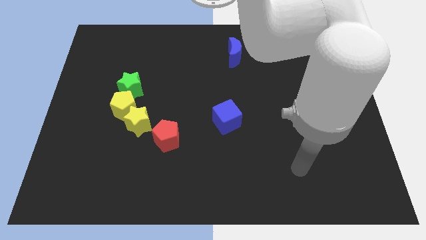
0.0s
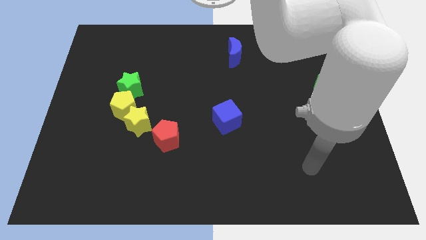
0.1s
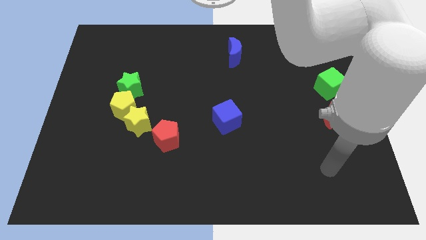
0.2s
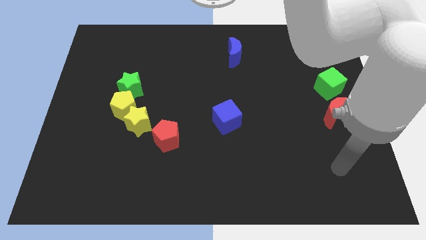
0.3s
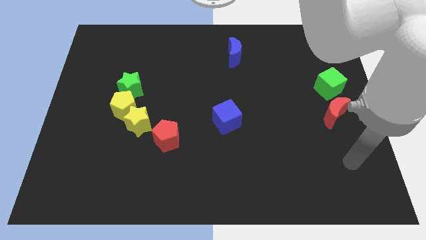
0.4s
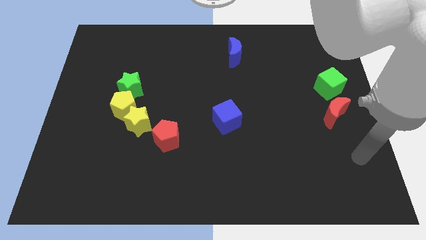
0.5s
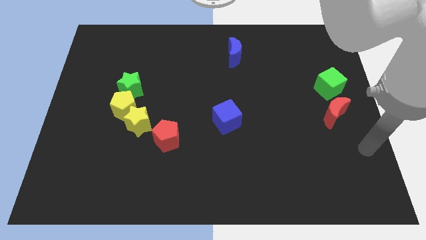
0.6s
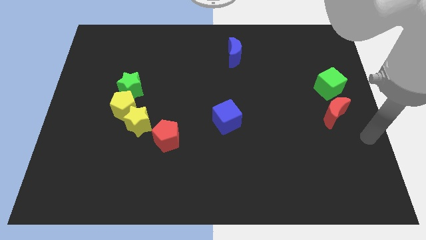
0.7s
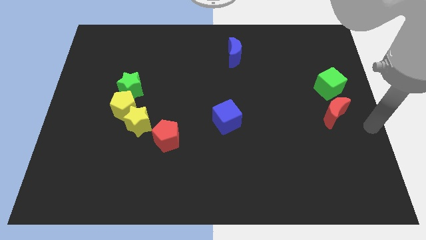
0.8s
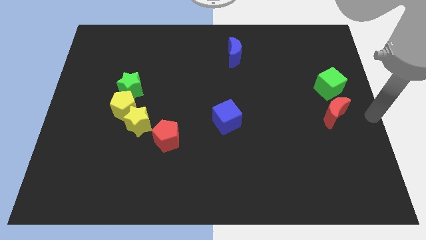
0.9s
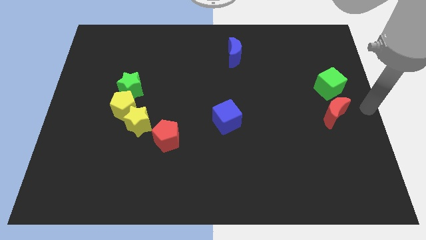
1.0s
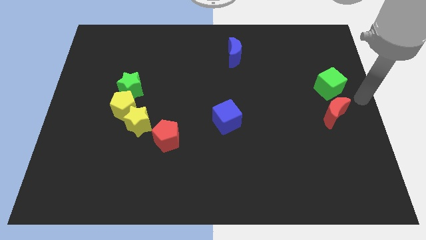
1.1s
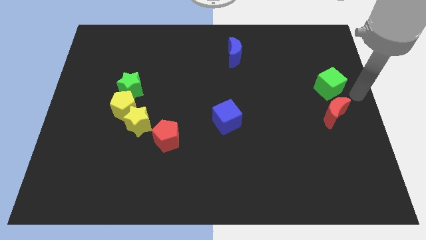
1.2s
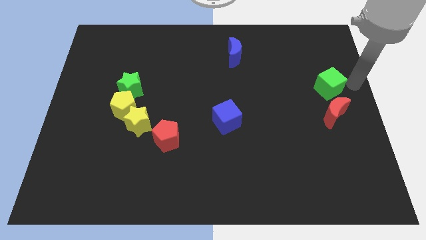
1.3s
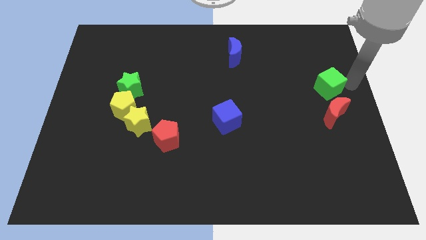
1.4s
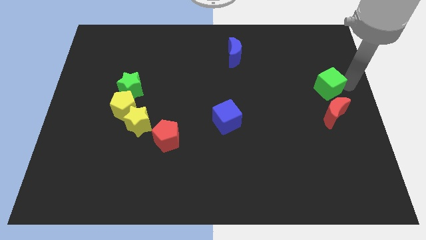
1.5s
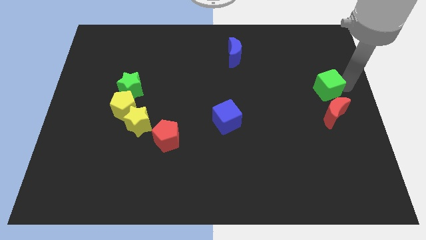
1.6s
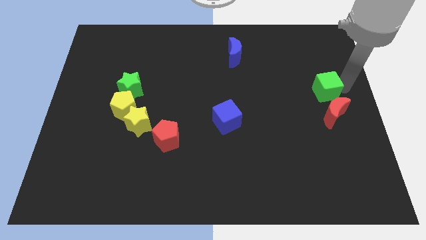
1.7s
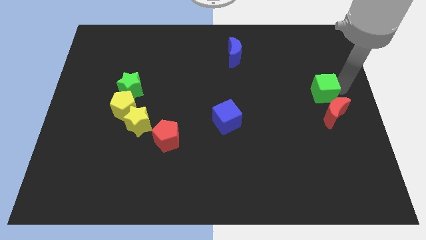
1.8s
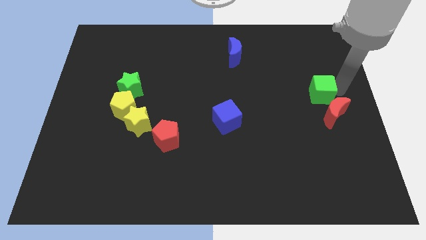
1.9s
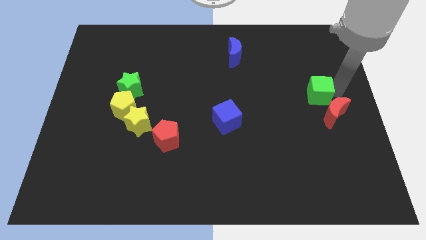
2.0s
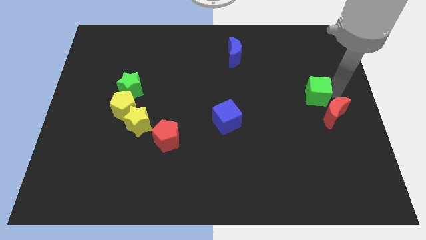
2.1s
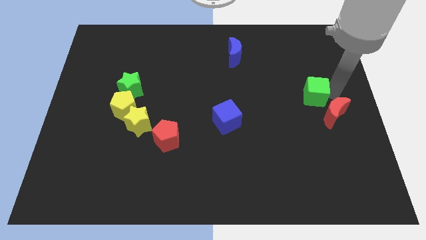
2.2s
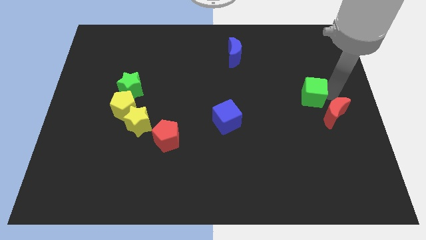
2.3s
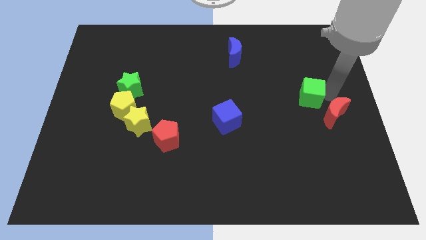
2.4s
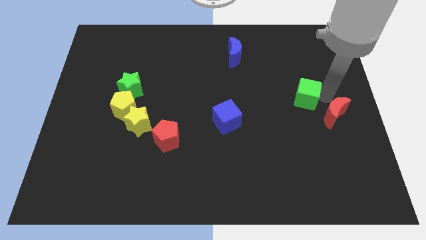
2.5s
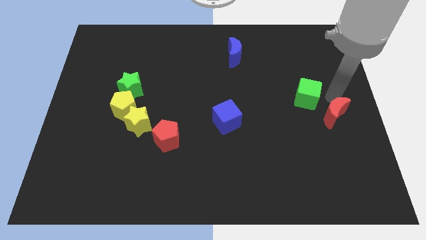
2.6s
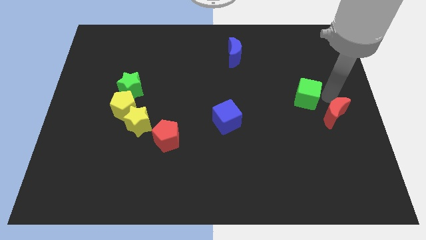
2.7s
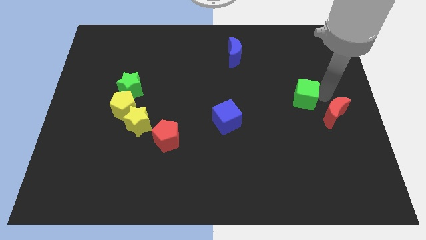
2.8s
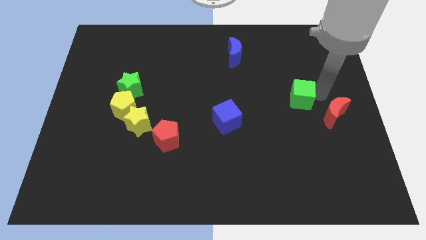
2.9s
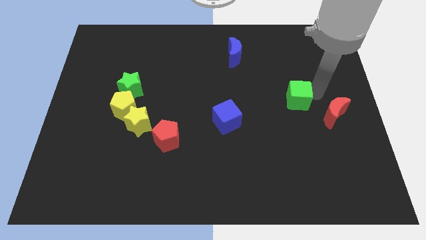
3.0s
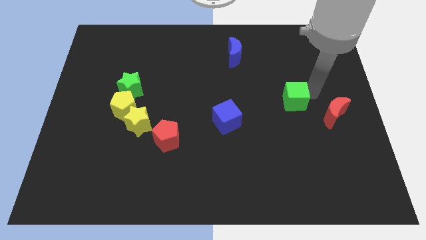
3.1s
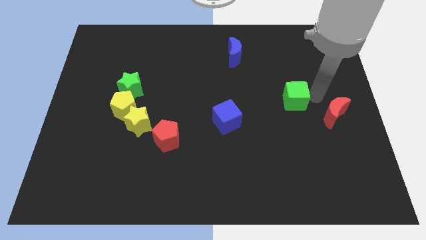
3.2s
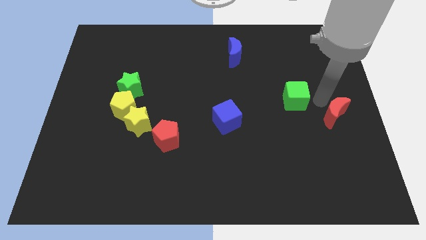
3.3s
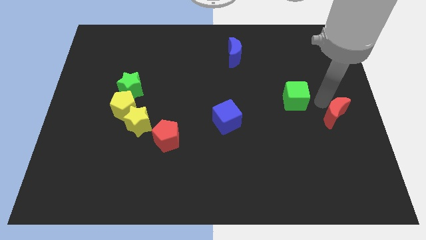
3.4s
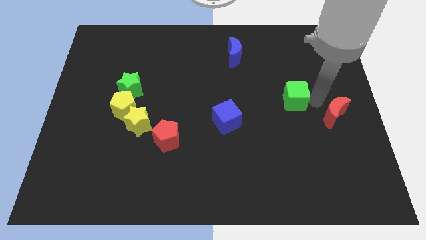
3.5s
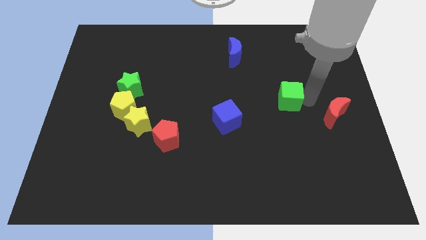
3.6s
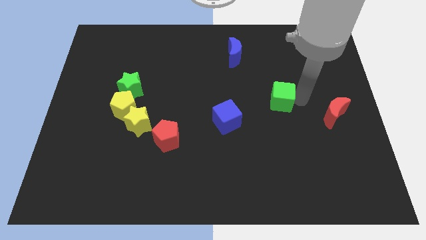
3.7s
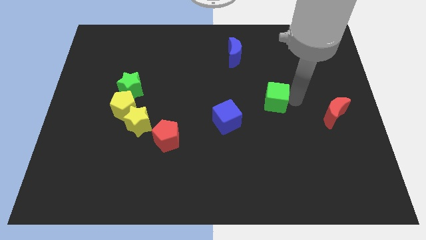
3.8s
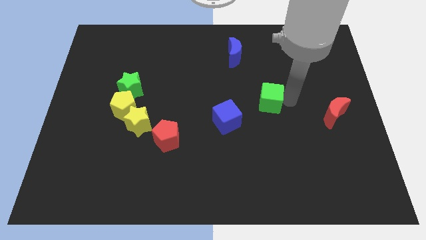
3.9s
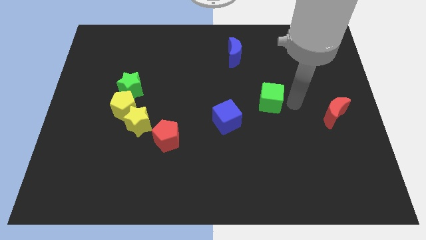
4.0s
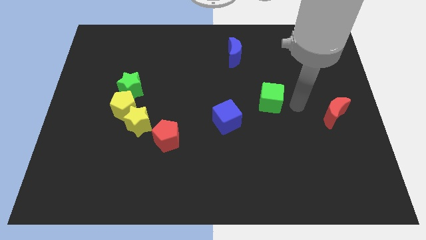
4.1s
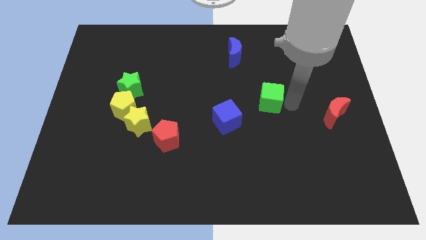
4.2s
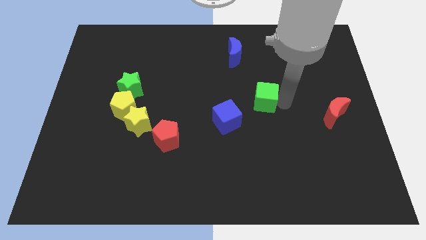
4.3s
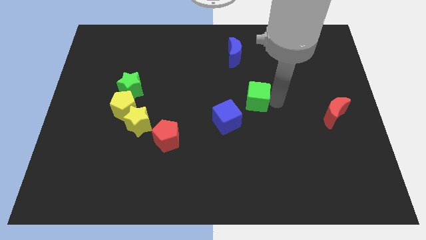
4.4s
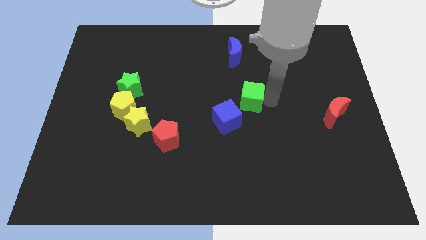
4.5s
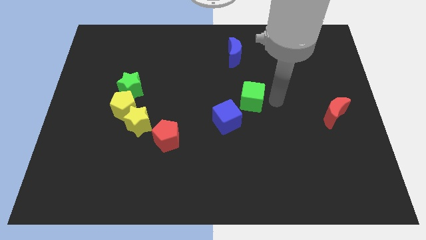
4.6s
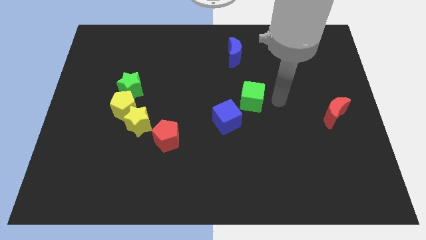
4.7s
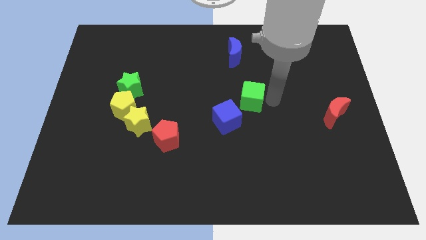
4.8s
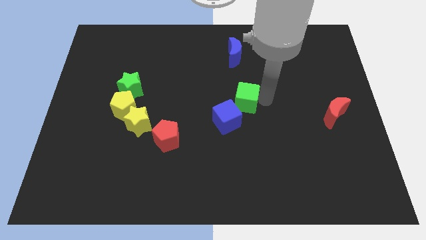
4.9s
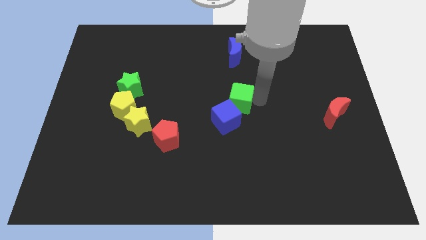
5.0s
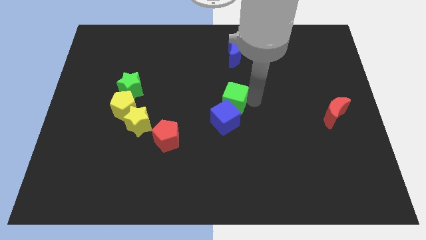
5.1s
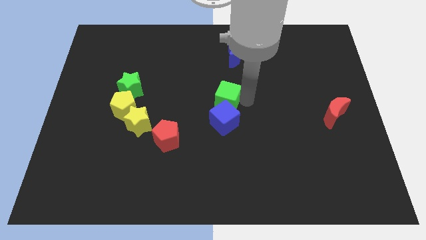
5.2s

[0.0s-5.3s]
move the green cube to the top left side of the blue cube

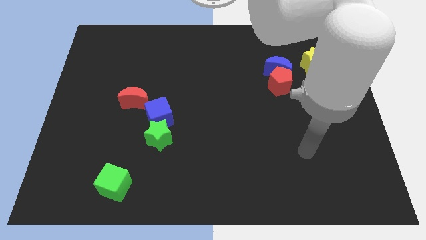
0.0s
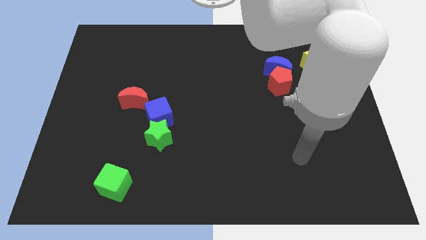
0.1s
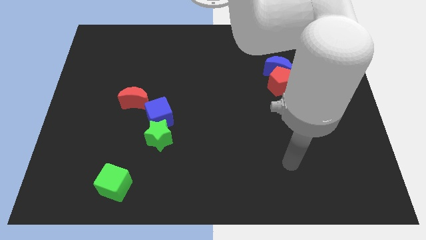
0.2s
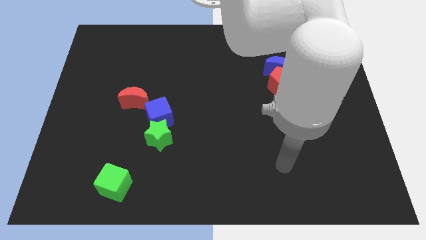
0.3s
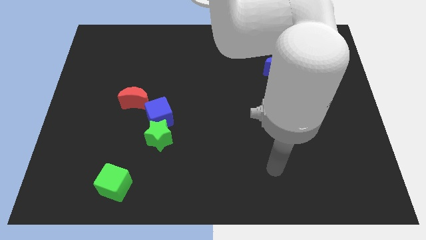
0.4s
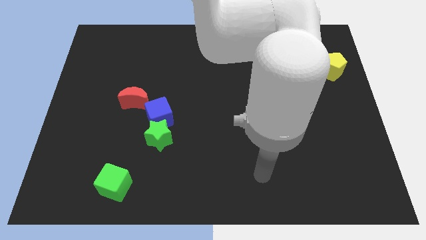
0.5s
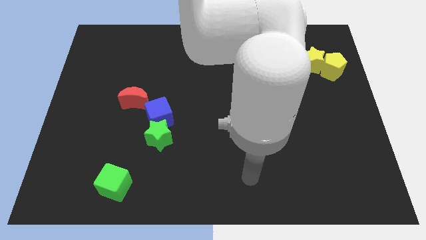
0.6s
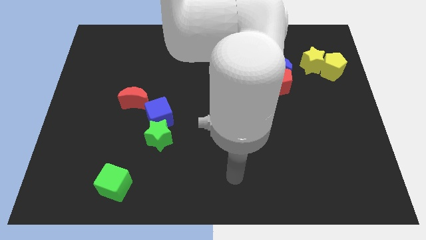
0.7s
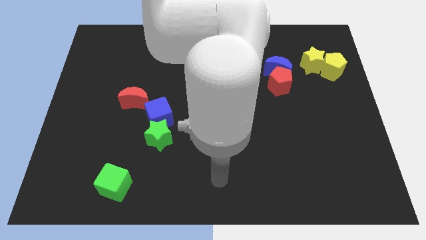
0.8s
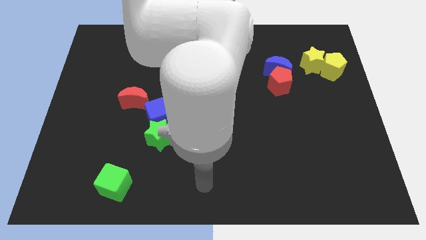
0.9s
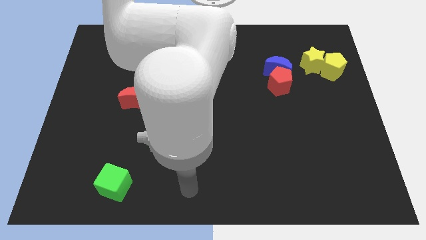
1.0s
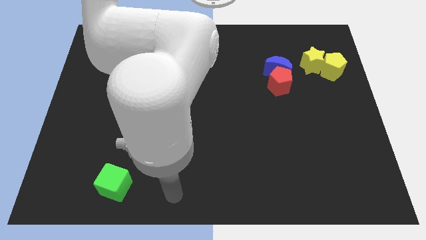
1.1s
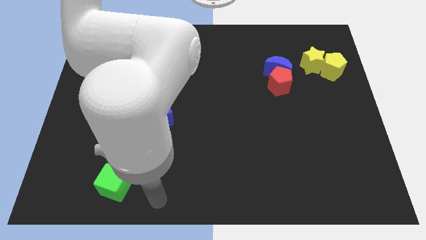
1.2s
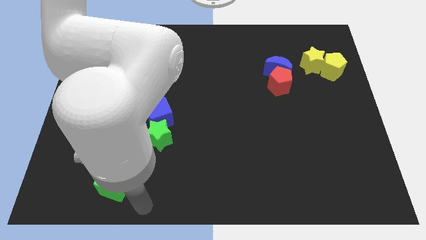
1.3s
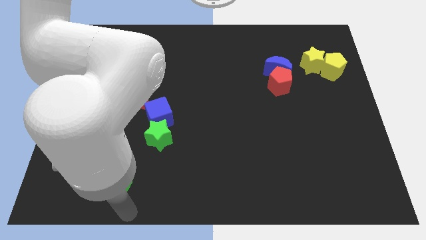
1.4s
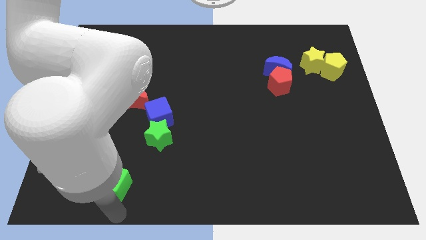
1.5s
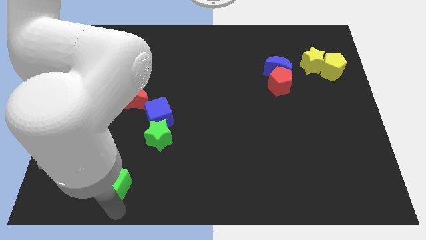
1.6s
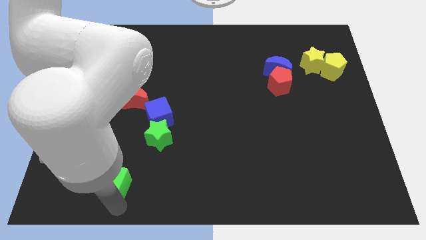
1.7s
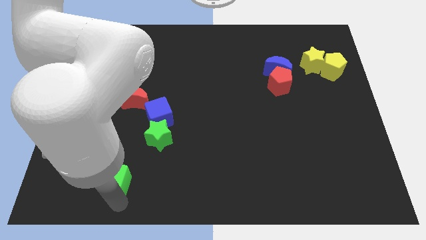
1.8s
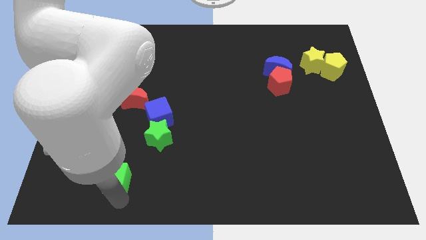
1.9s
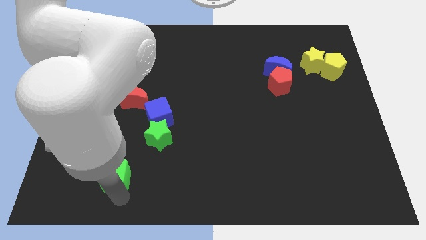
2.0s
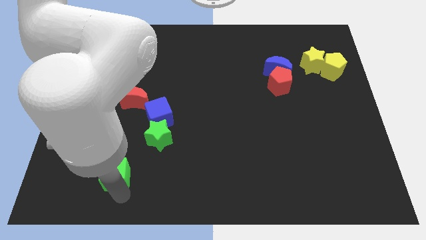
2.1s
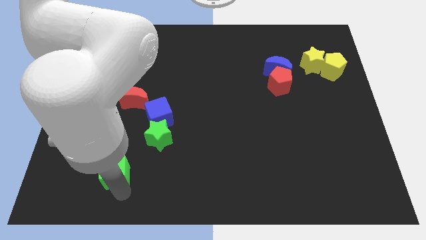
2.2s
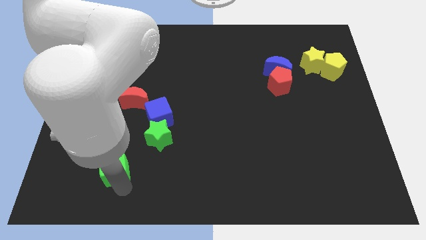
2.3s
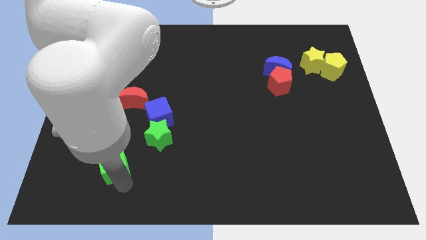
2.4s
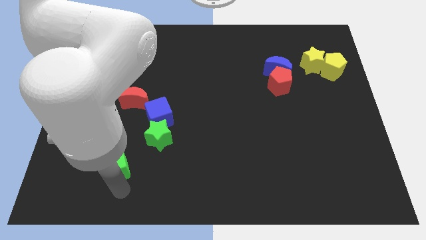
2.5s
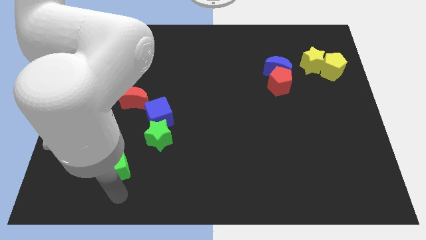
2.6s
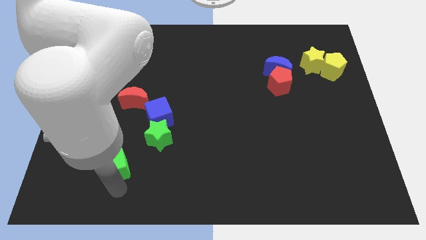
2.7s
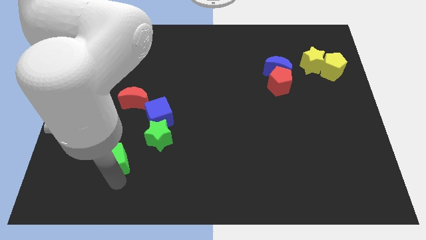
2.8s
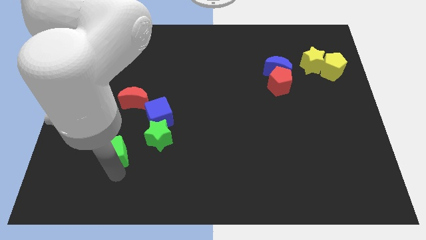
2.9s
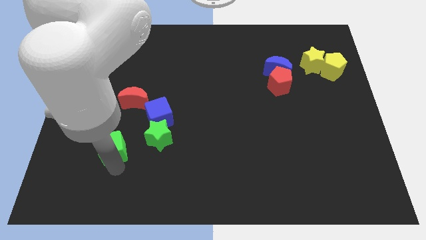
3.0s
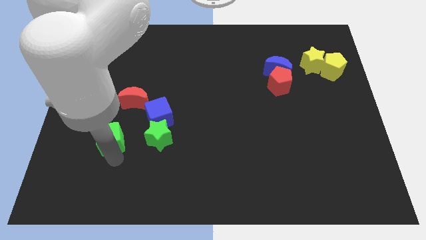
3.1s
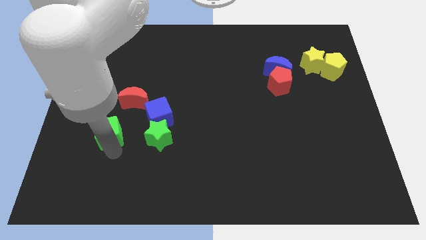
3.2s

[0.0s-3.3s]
slide the green cube to the bottom left side of the red moon
